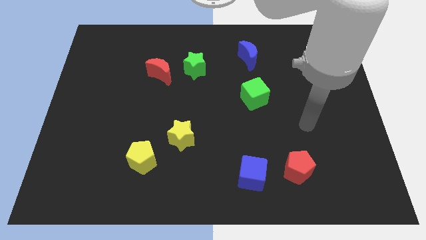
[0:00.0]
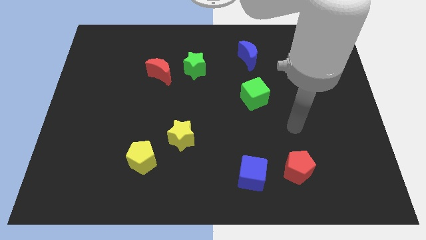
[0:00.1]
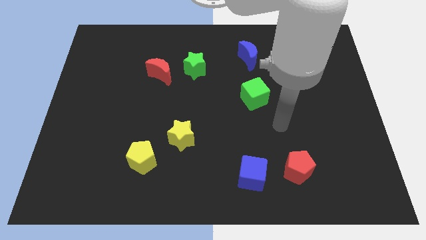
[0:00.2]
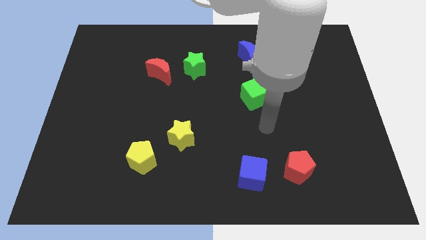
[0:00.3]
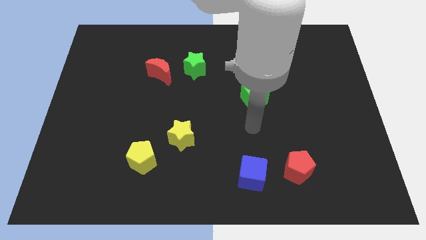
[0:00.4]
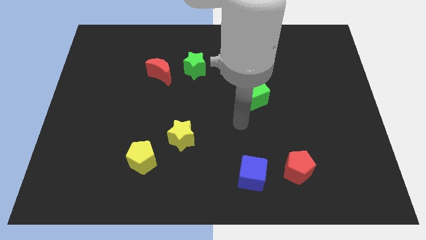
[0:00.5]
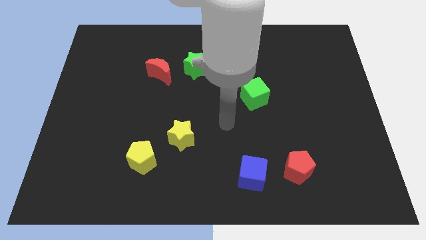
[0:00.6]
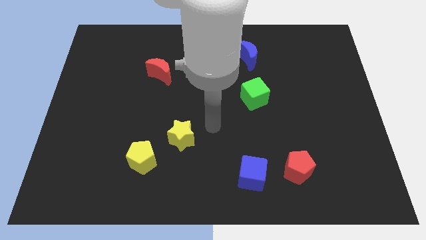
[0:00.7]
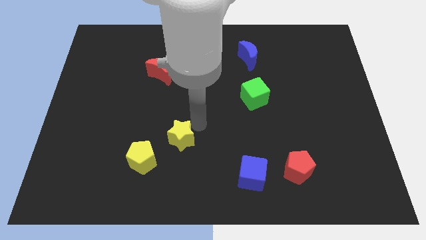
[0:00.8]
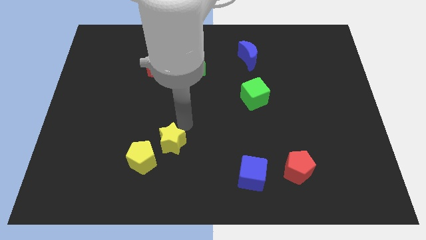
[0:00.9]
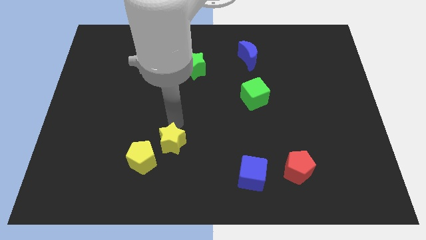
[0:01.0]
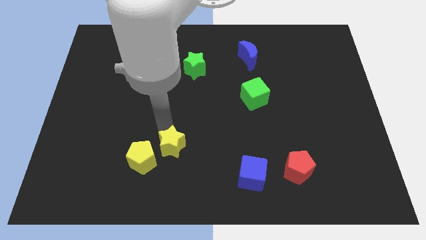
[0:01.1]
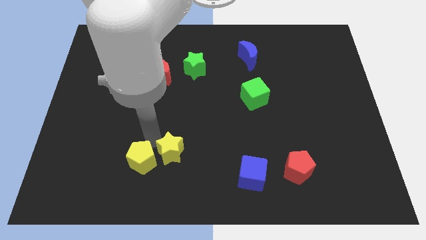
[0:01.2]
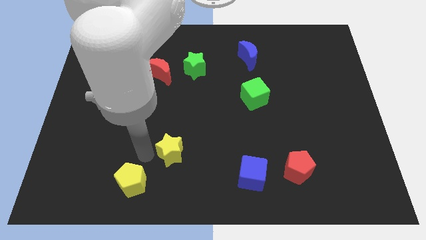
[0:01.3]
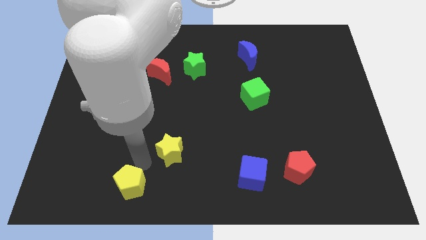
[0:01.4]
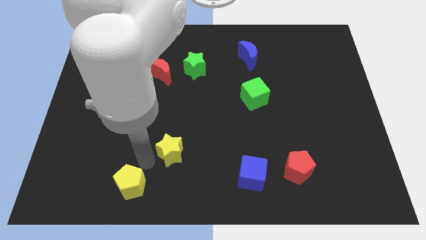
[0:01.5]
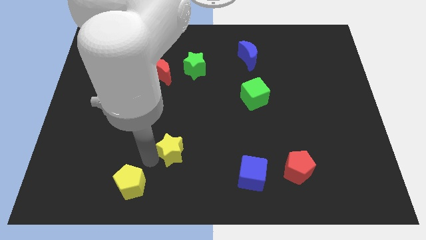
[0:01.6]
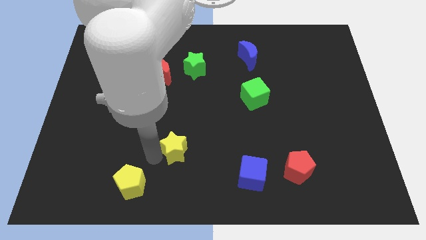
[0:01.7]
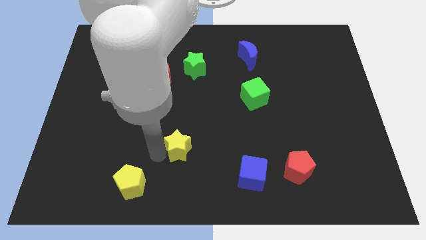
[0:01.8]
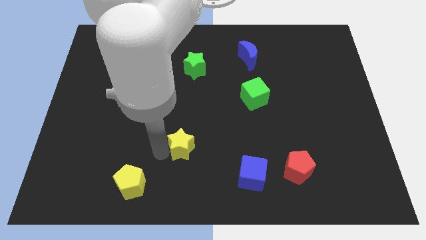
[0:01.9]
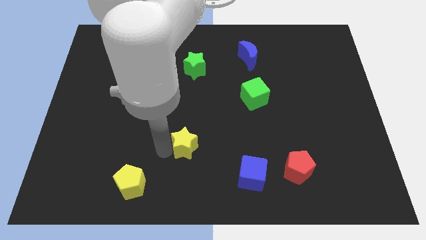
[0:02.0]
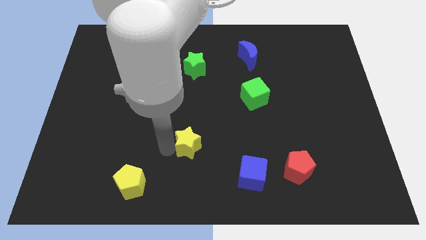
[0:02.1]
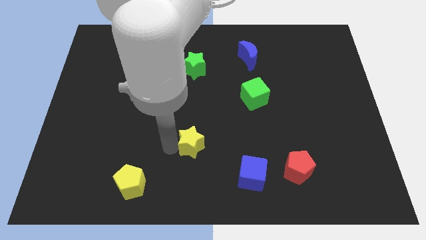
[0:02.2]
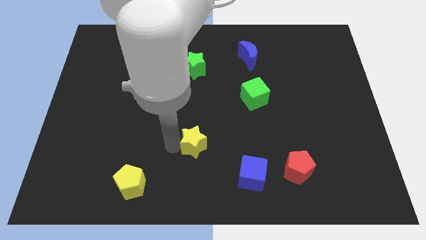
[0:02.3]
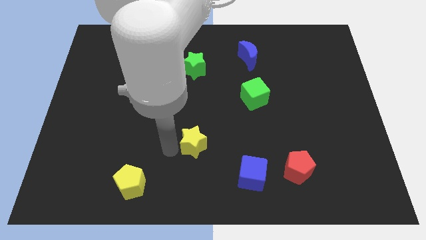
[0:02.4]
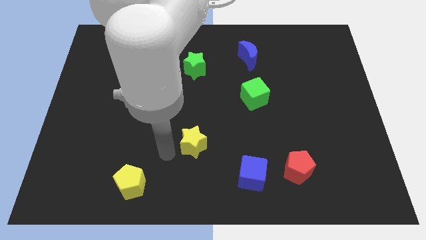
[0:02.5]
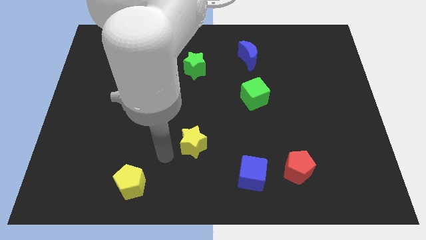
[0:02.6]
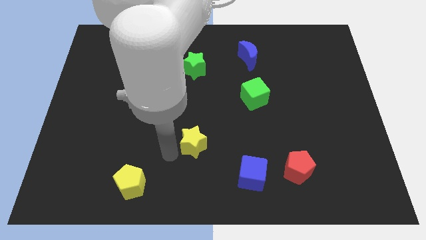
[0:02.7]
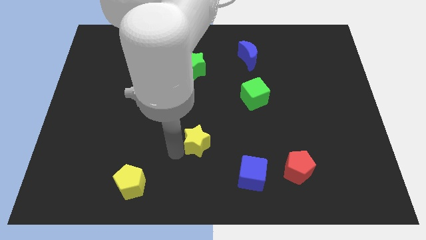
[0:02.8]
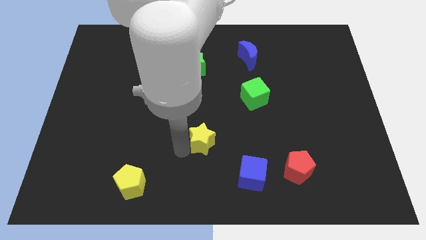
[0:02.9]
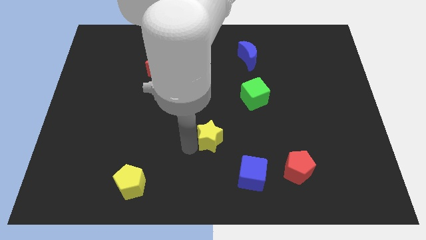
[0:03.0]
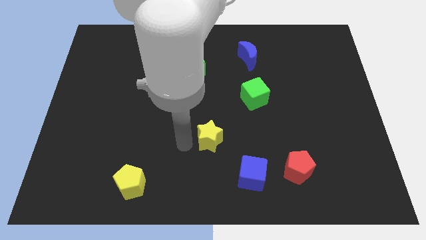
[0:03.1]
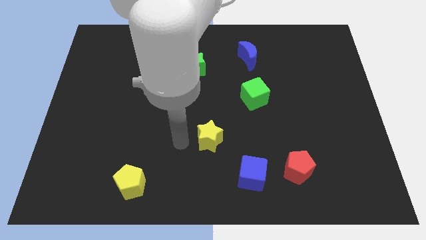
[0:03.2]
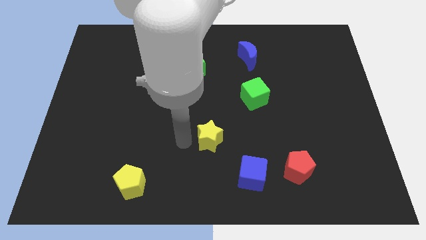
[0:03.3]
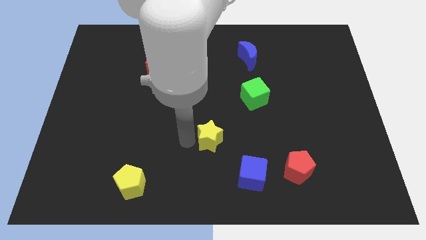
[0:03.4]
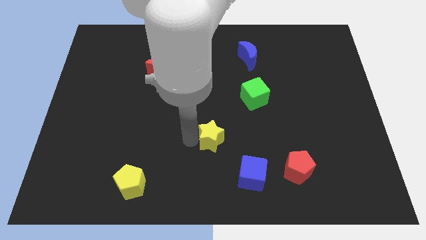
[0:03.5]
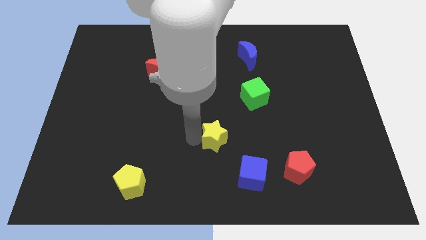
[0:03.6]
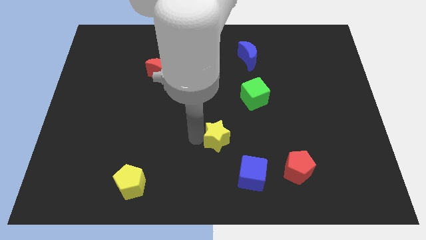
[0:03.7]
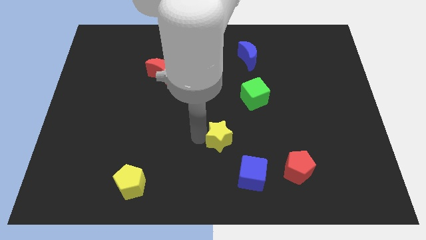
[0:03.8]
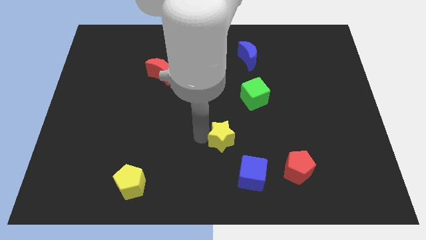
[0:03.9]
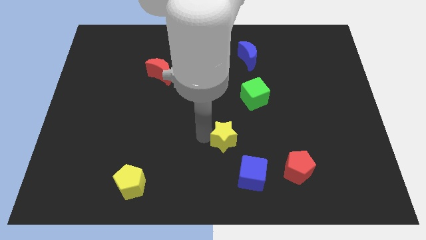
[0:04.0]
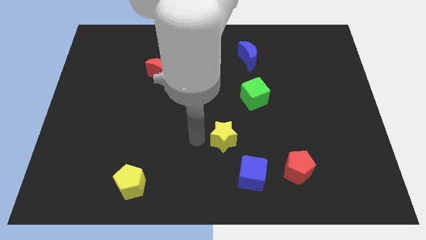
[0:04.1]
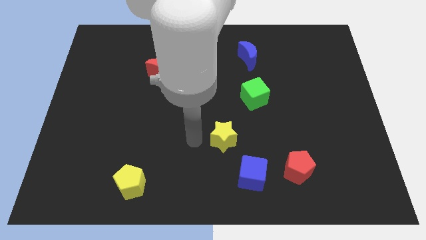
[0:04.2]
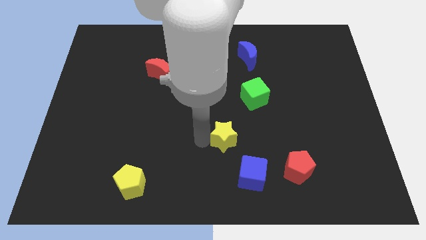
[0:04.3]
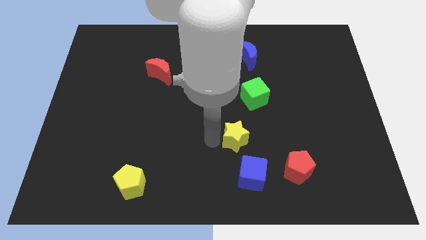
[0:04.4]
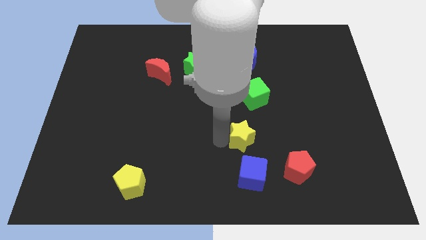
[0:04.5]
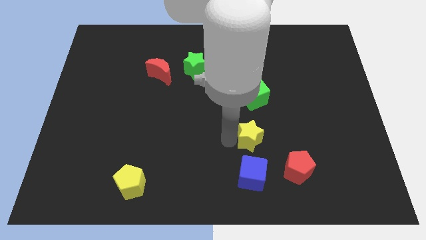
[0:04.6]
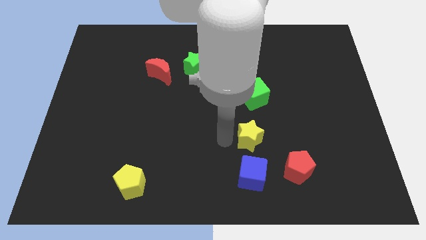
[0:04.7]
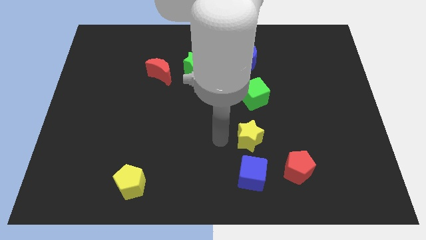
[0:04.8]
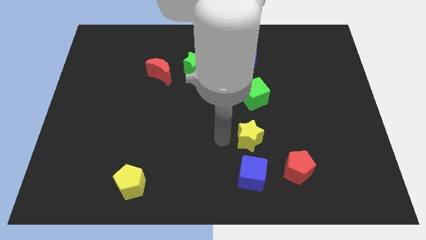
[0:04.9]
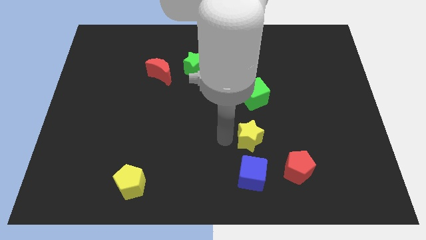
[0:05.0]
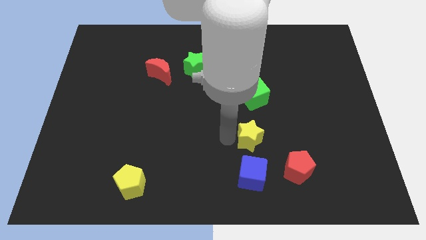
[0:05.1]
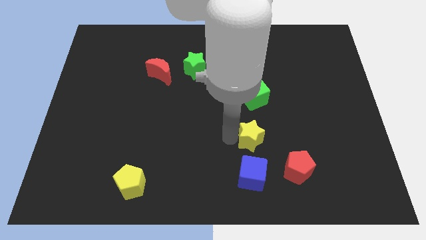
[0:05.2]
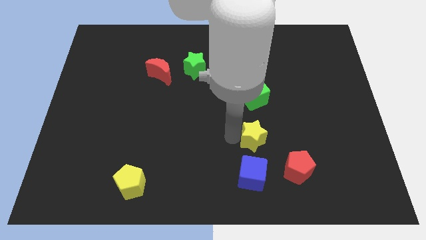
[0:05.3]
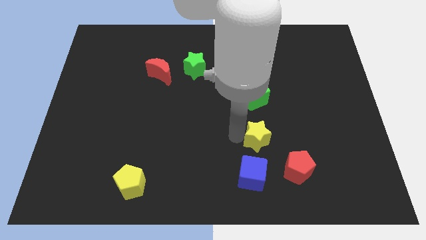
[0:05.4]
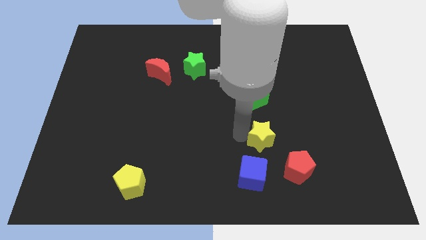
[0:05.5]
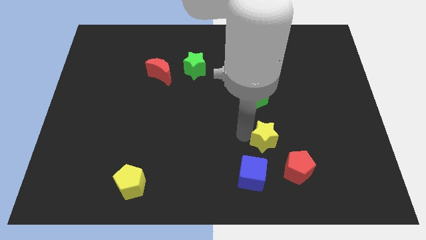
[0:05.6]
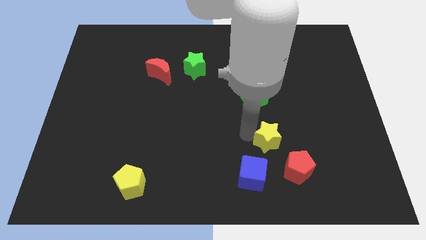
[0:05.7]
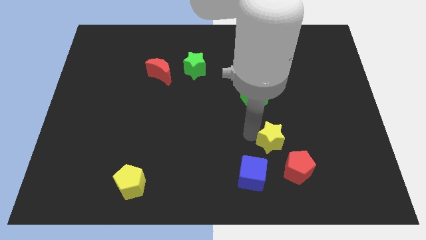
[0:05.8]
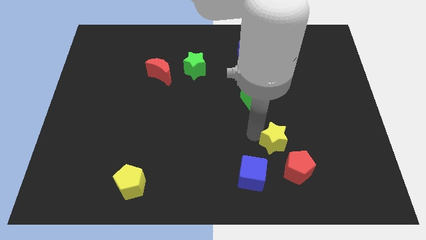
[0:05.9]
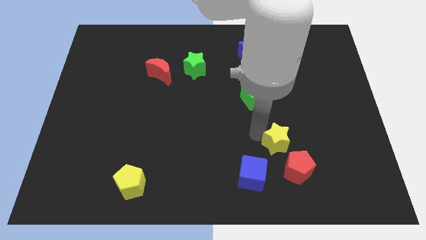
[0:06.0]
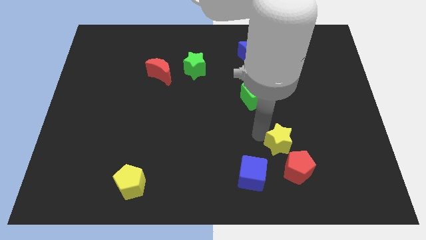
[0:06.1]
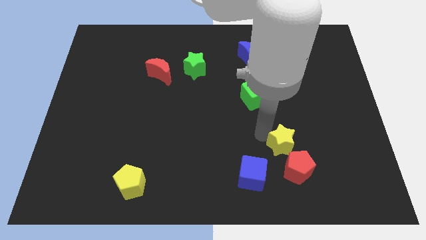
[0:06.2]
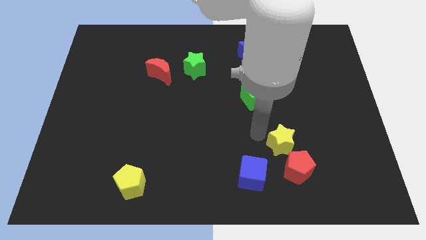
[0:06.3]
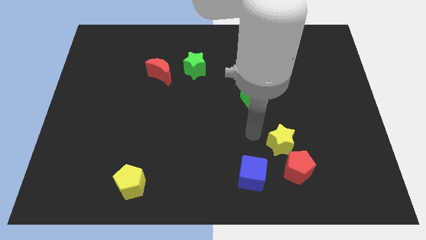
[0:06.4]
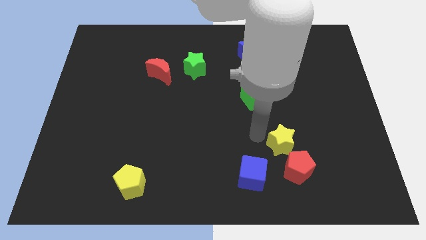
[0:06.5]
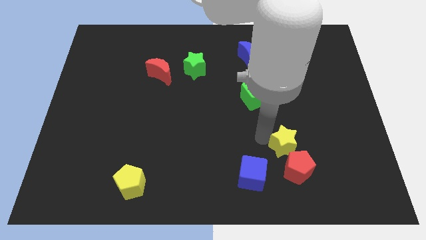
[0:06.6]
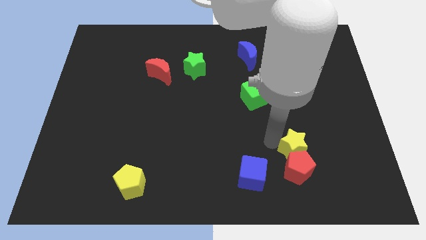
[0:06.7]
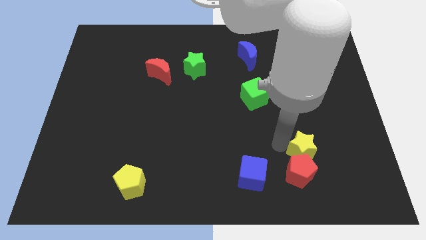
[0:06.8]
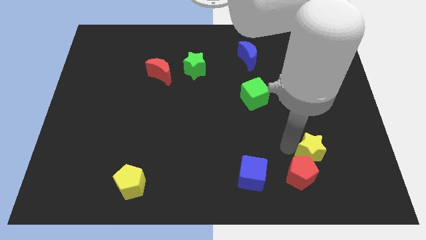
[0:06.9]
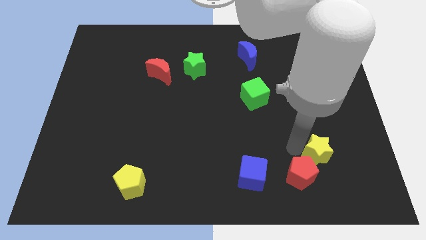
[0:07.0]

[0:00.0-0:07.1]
move the yellow star right of the red pentagon

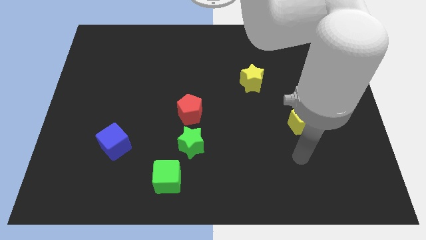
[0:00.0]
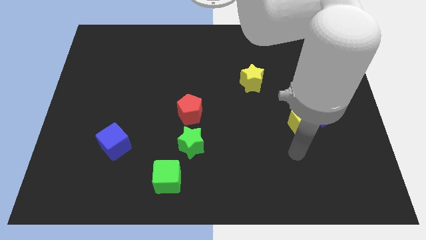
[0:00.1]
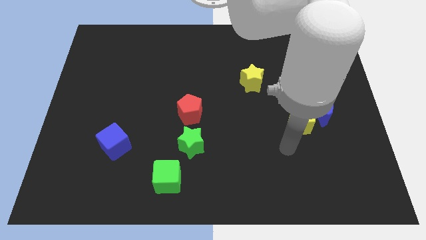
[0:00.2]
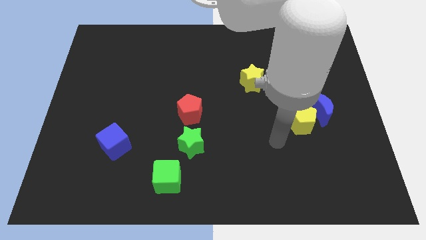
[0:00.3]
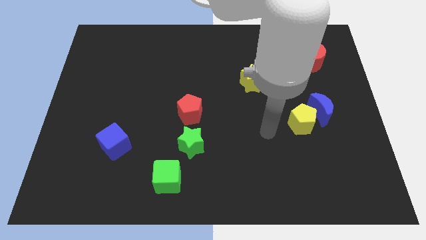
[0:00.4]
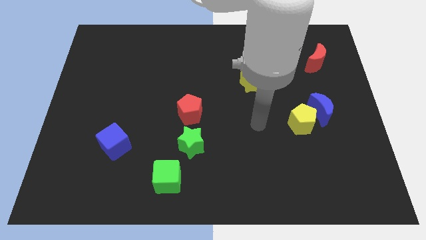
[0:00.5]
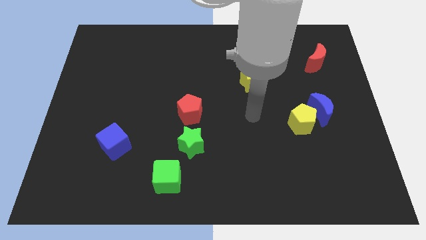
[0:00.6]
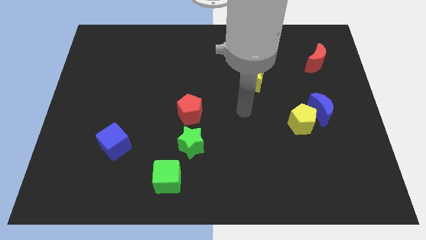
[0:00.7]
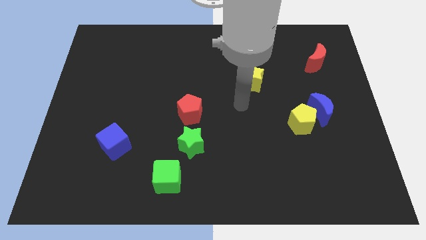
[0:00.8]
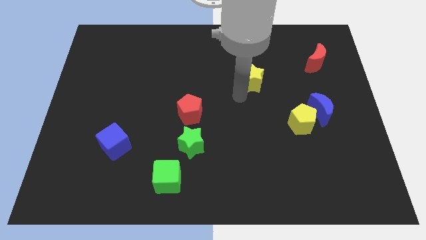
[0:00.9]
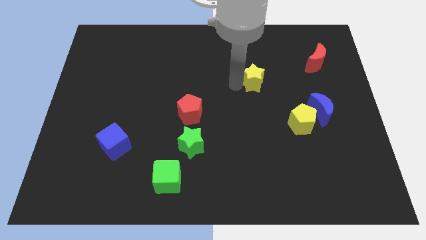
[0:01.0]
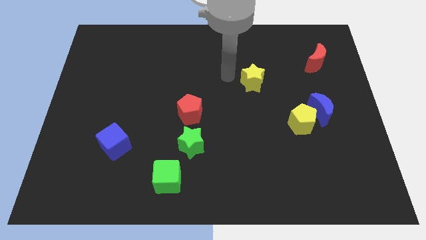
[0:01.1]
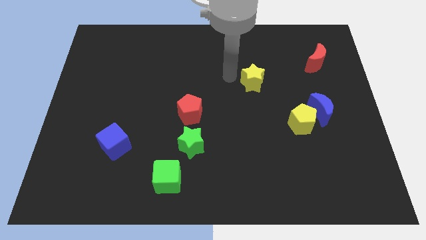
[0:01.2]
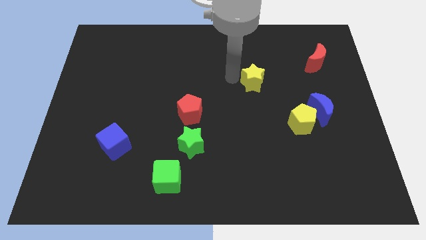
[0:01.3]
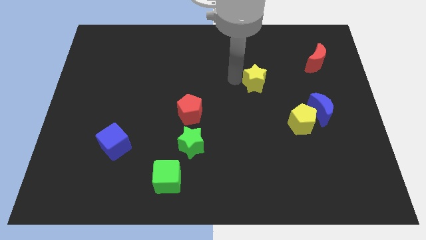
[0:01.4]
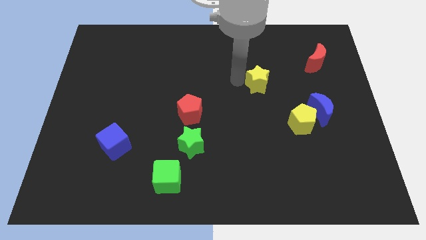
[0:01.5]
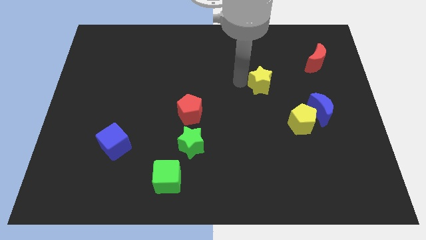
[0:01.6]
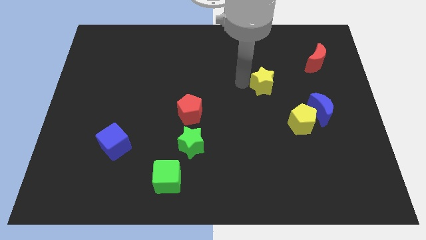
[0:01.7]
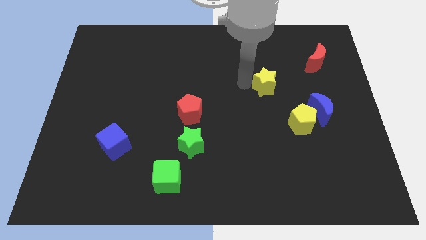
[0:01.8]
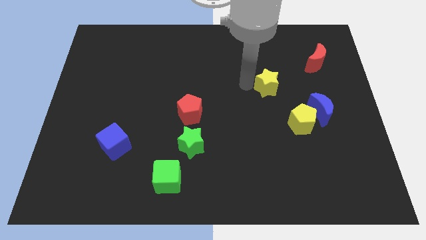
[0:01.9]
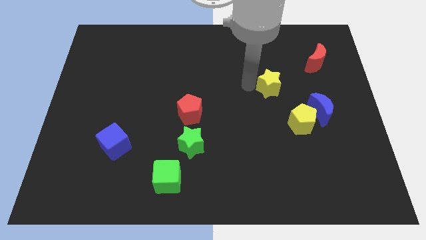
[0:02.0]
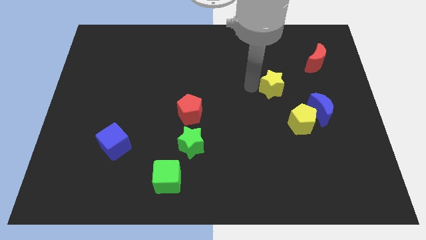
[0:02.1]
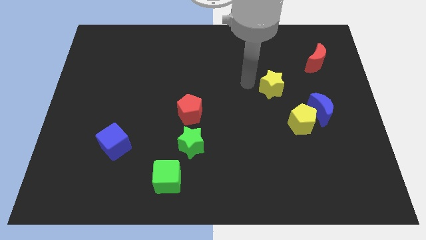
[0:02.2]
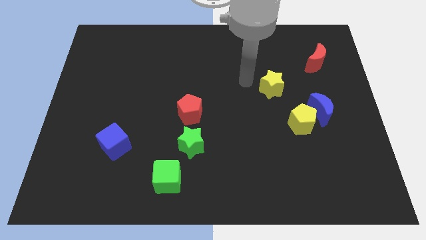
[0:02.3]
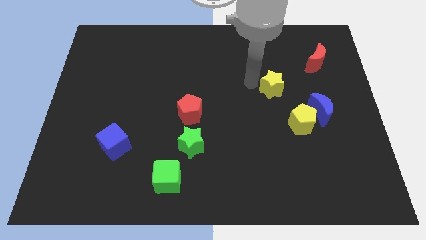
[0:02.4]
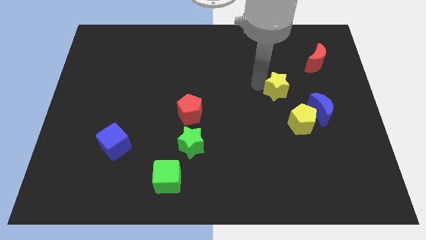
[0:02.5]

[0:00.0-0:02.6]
slide the yellow star to the top left side of the blue moon
